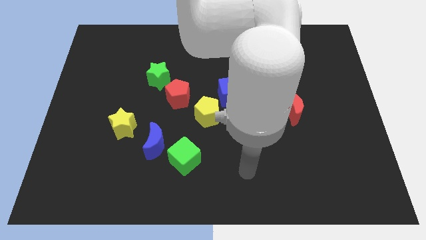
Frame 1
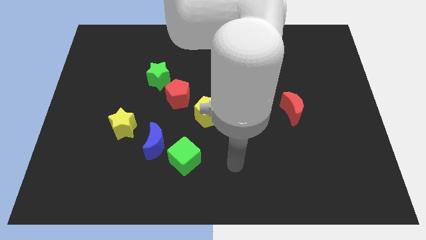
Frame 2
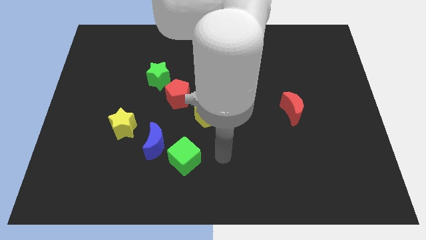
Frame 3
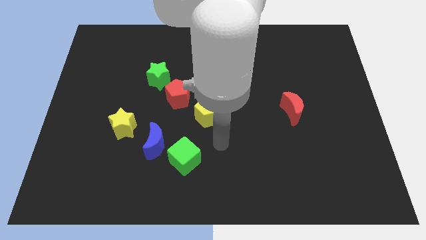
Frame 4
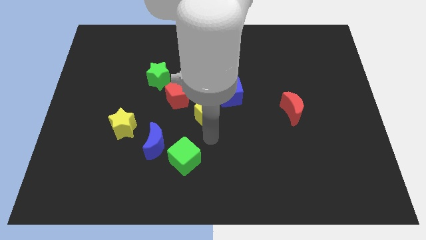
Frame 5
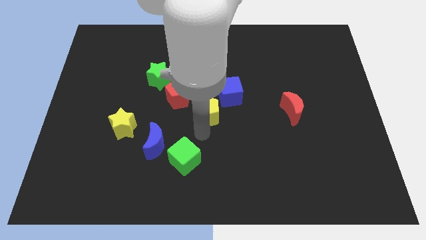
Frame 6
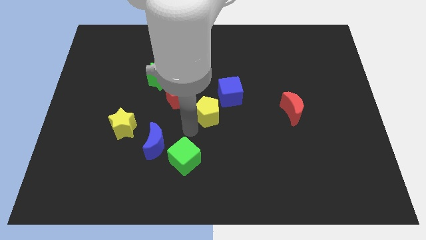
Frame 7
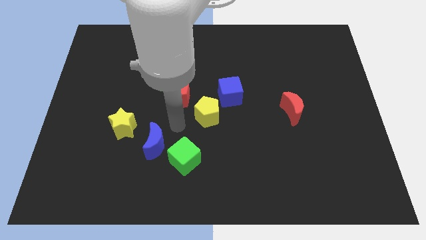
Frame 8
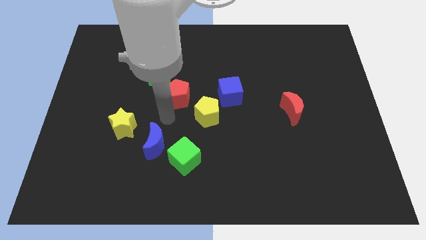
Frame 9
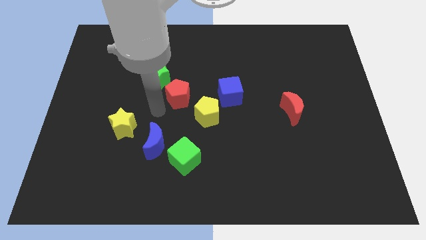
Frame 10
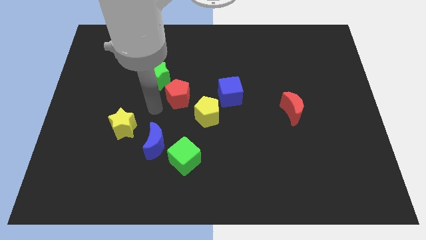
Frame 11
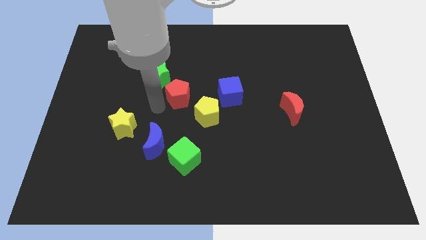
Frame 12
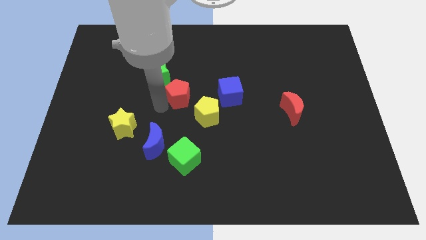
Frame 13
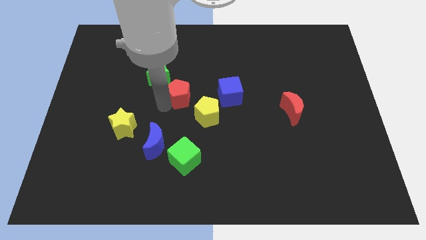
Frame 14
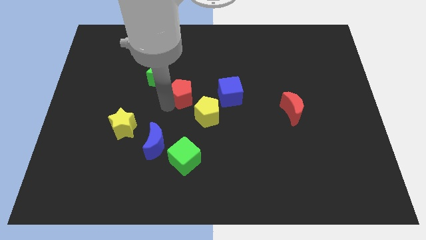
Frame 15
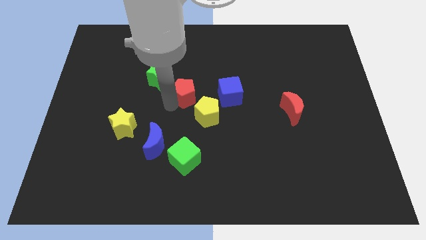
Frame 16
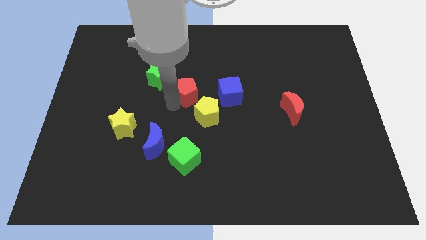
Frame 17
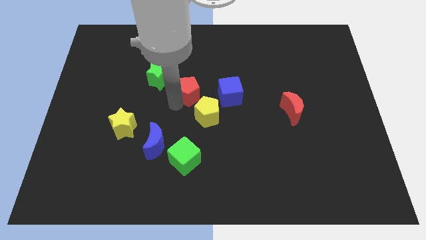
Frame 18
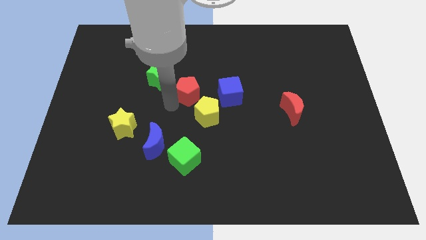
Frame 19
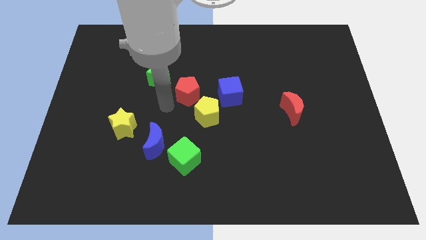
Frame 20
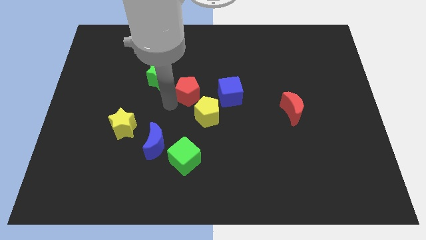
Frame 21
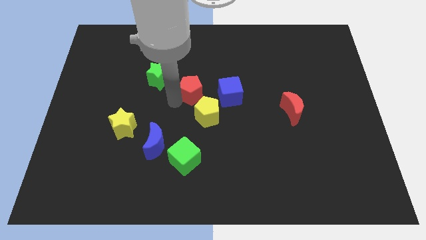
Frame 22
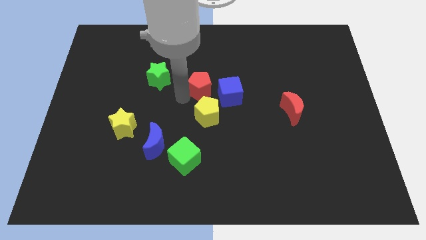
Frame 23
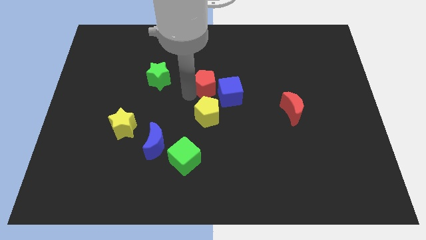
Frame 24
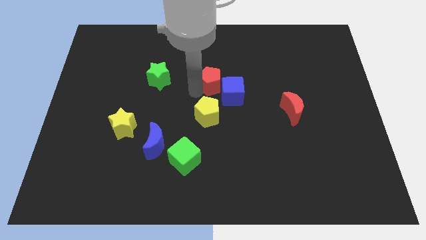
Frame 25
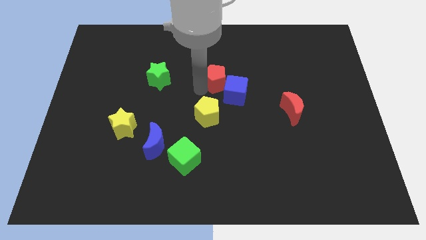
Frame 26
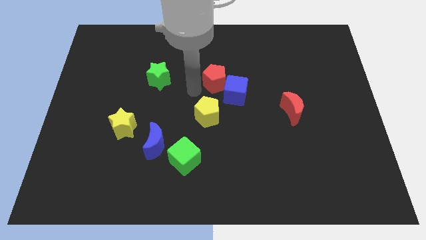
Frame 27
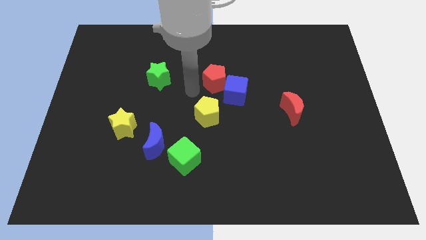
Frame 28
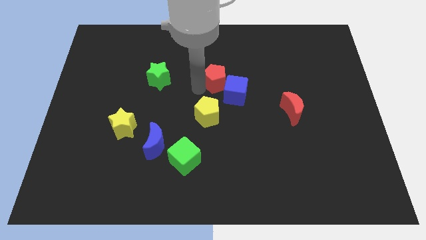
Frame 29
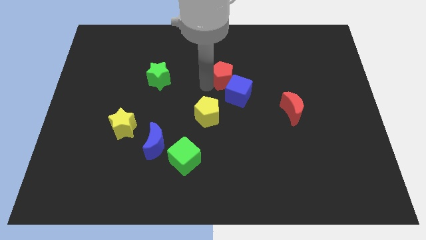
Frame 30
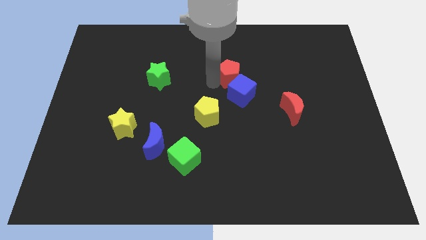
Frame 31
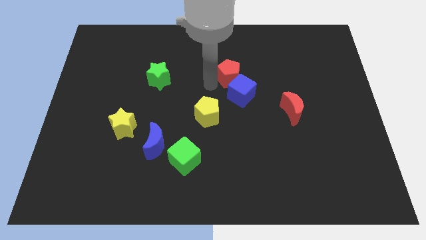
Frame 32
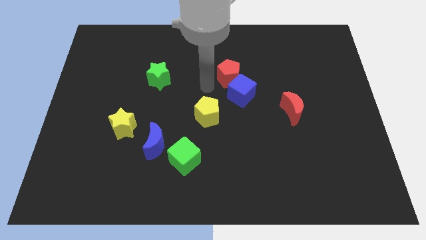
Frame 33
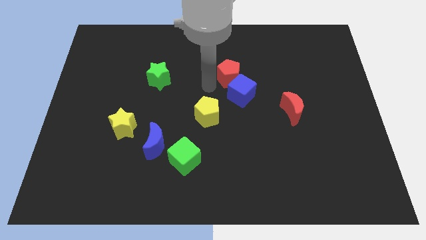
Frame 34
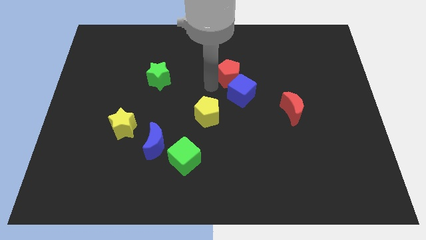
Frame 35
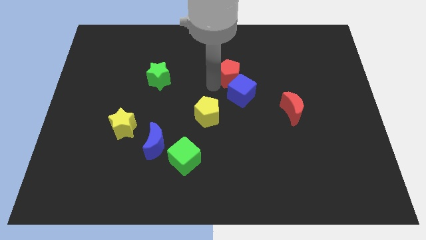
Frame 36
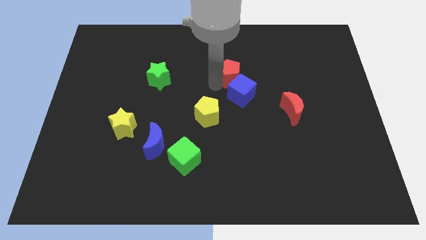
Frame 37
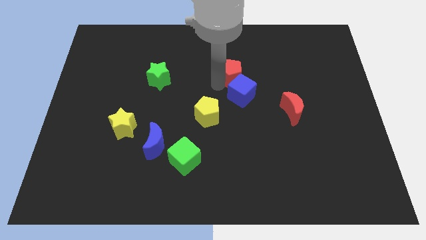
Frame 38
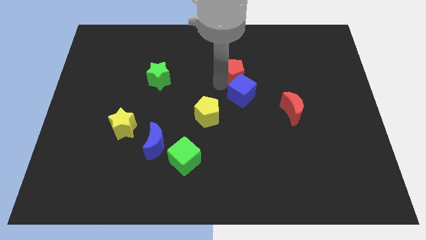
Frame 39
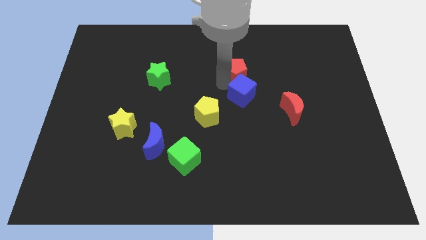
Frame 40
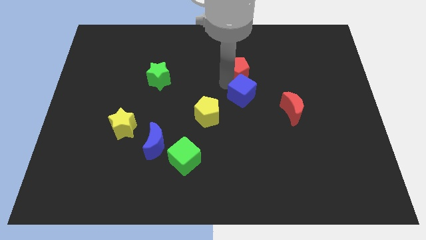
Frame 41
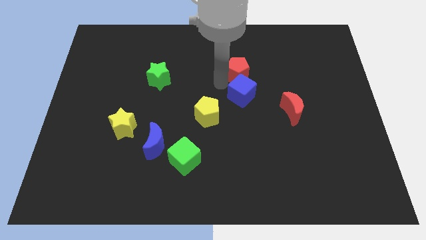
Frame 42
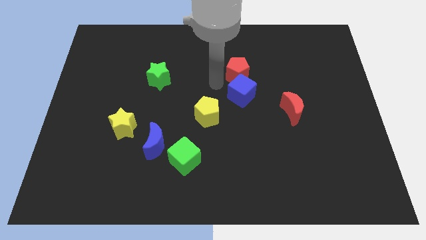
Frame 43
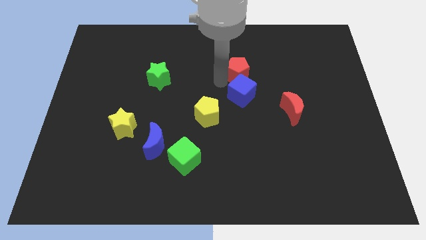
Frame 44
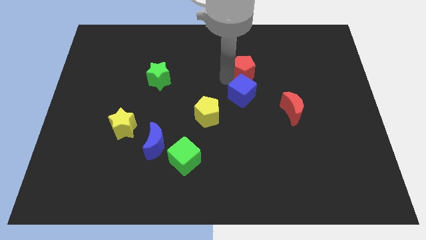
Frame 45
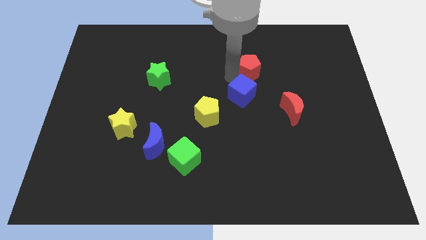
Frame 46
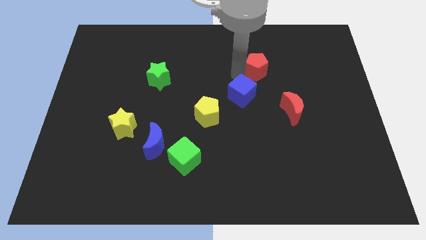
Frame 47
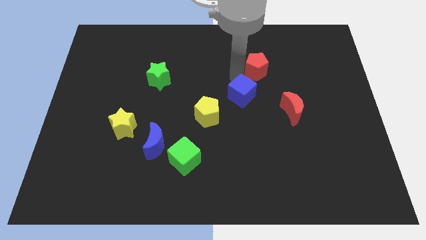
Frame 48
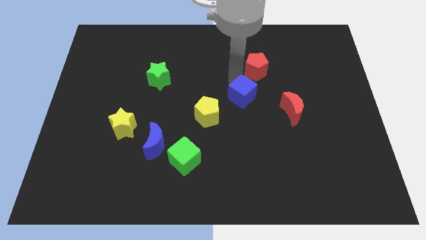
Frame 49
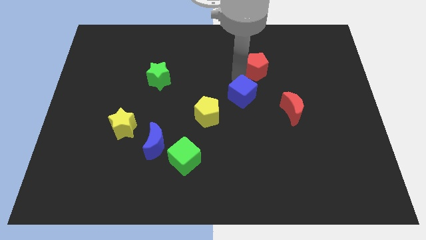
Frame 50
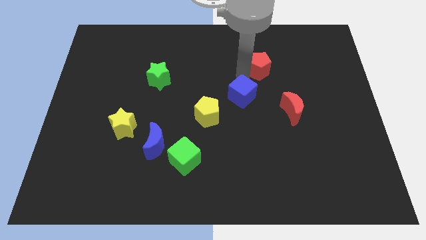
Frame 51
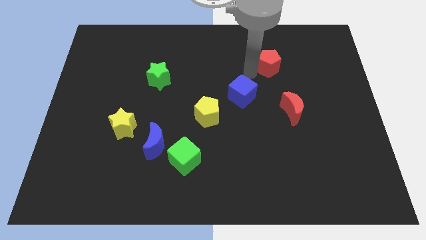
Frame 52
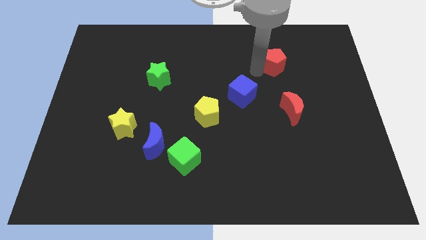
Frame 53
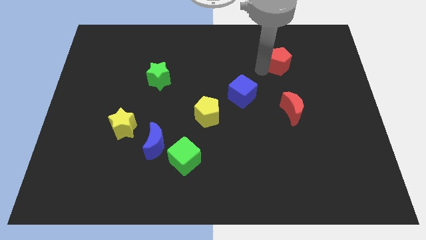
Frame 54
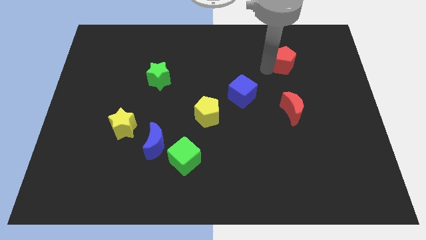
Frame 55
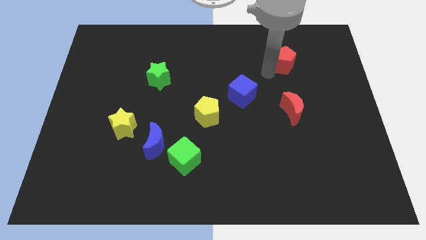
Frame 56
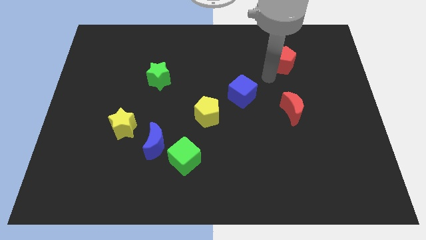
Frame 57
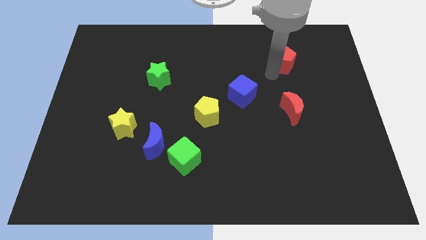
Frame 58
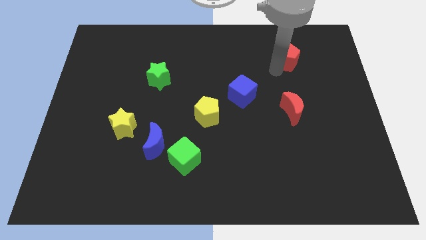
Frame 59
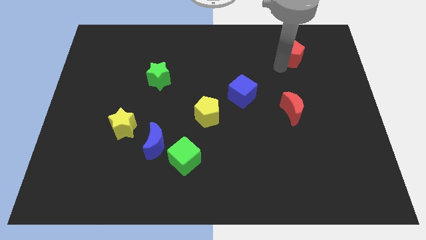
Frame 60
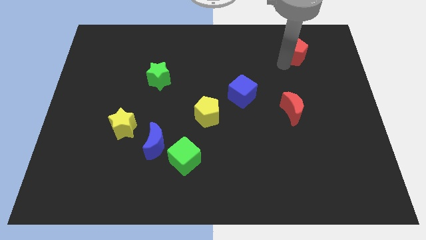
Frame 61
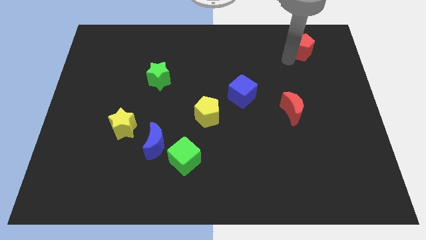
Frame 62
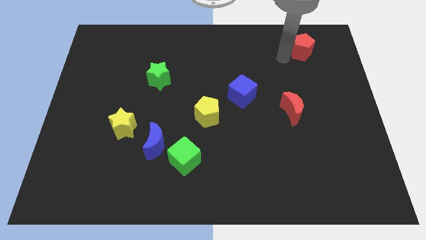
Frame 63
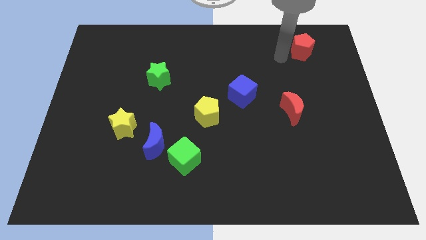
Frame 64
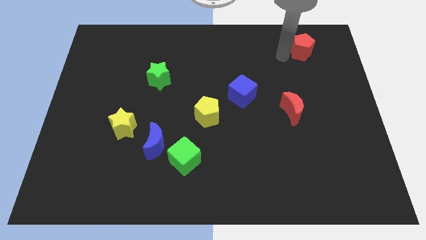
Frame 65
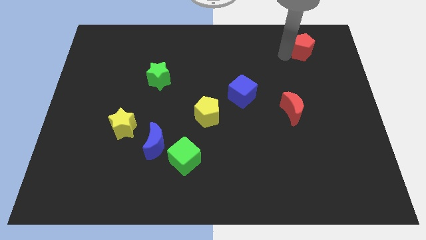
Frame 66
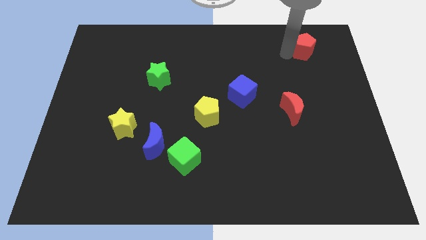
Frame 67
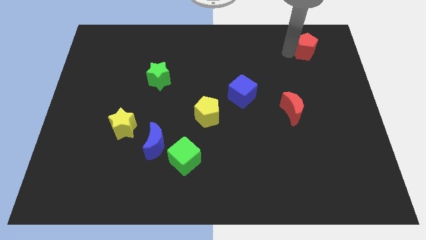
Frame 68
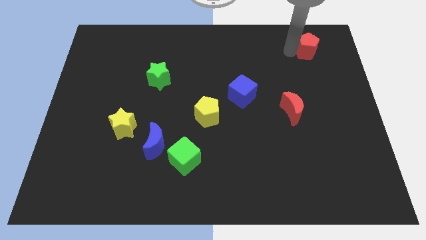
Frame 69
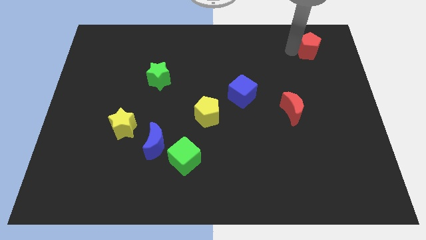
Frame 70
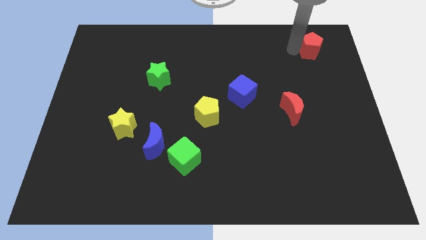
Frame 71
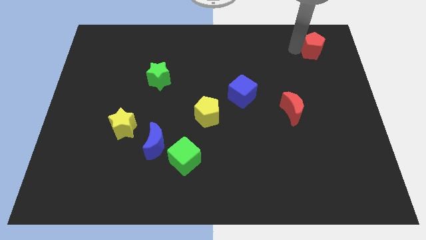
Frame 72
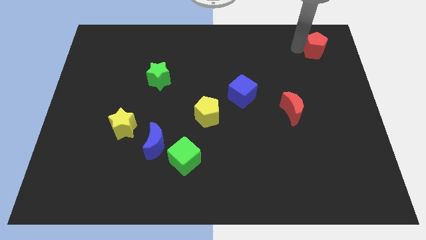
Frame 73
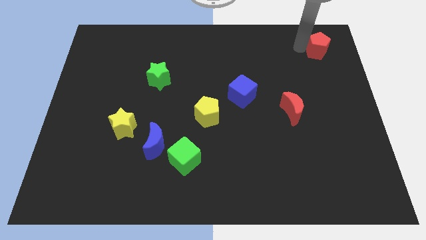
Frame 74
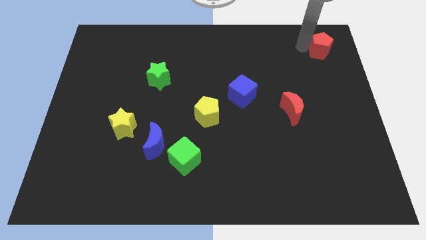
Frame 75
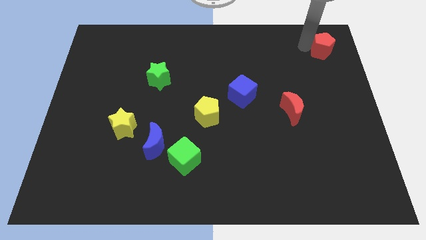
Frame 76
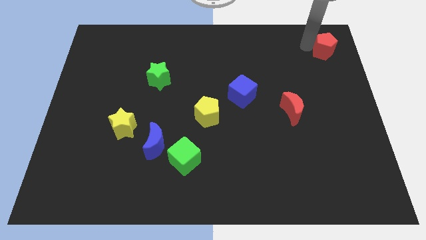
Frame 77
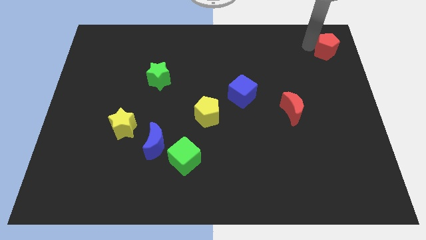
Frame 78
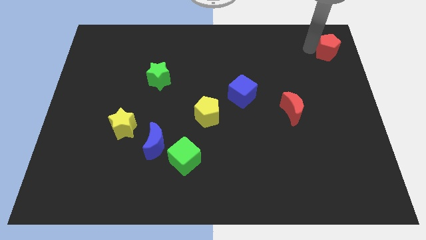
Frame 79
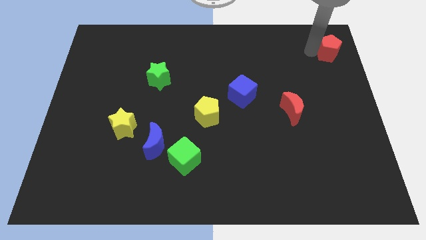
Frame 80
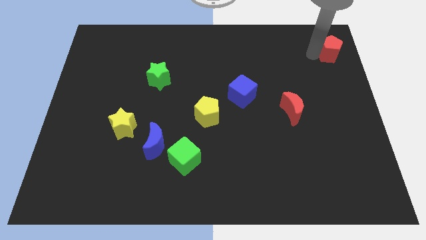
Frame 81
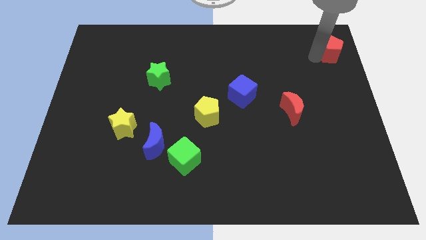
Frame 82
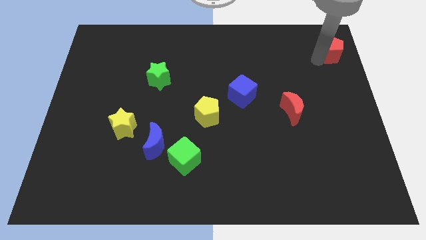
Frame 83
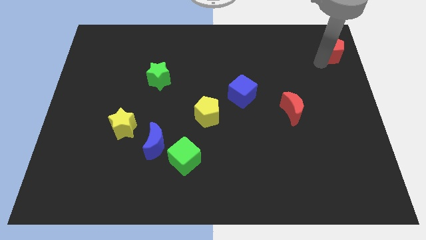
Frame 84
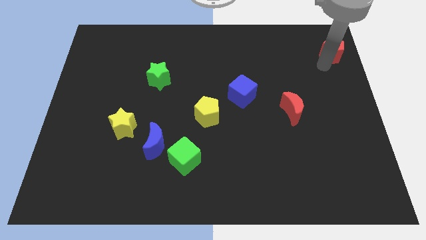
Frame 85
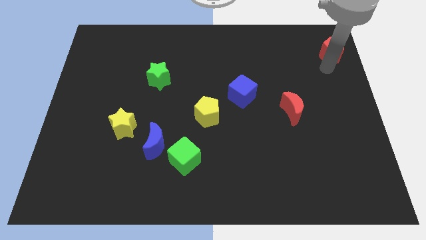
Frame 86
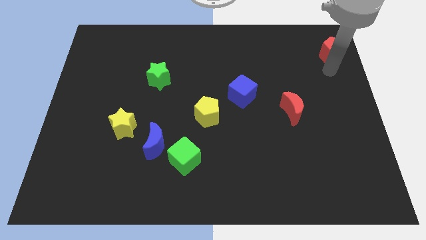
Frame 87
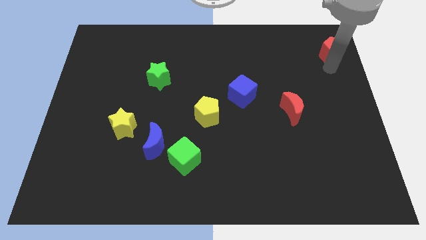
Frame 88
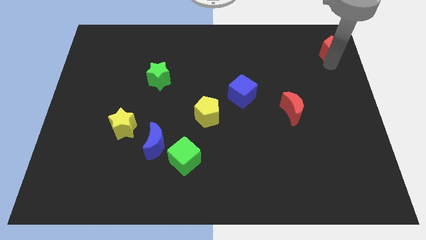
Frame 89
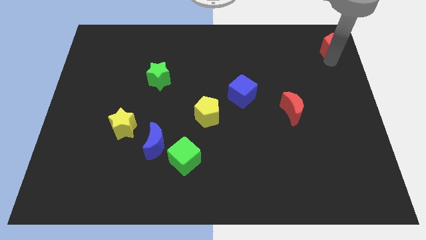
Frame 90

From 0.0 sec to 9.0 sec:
move the red pentagon to the top right of the board
